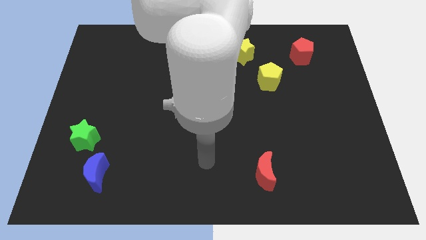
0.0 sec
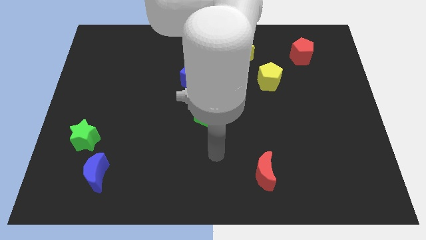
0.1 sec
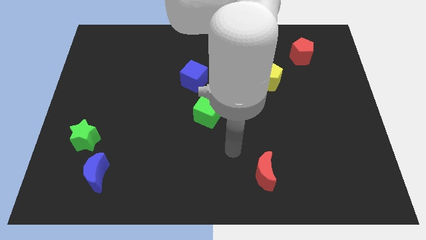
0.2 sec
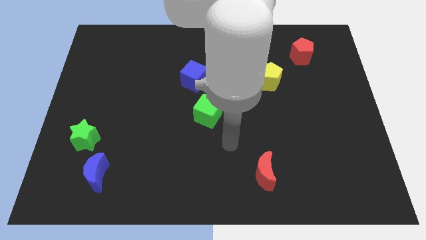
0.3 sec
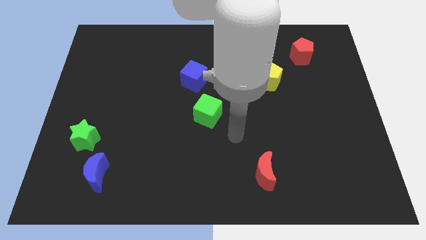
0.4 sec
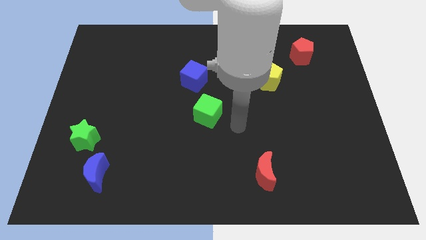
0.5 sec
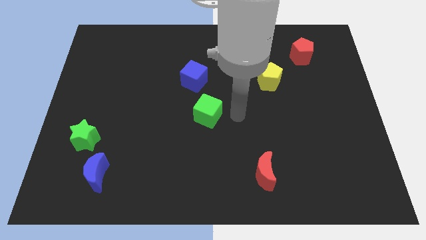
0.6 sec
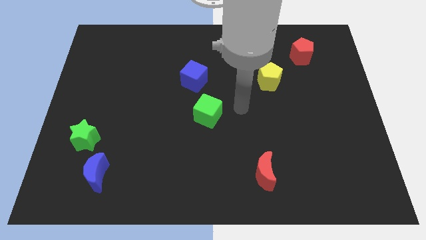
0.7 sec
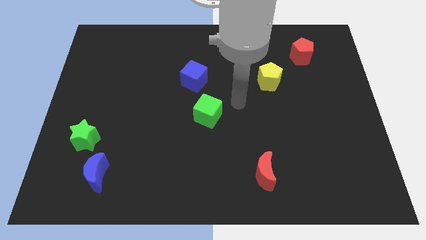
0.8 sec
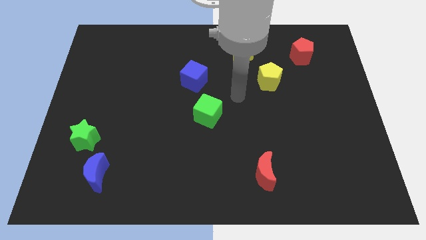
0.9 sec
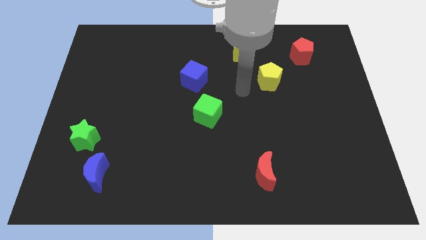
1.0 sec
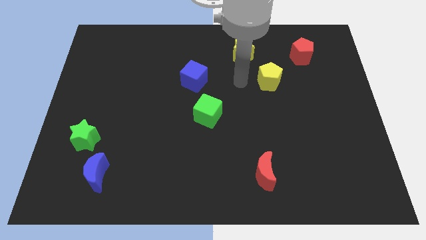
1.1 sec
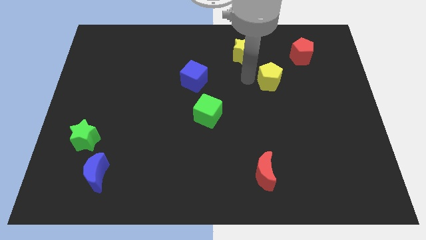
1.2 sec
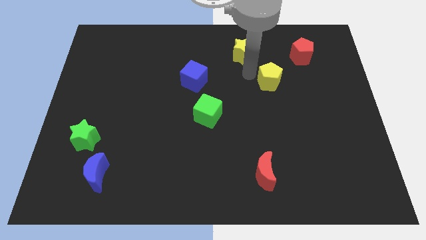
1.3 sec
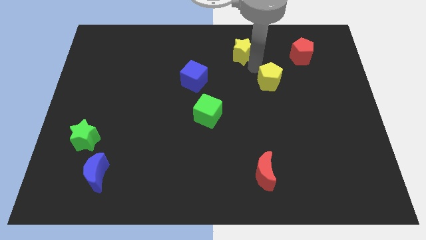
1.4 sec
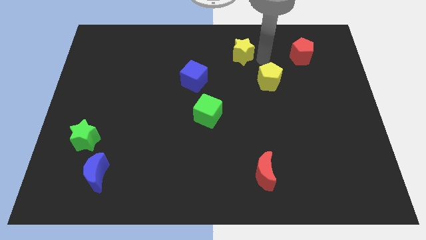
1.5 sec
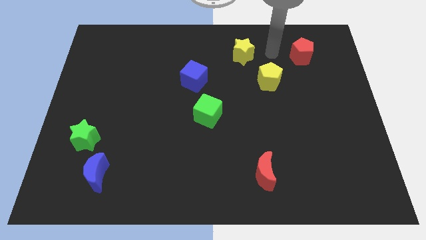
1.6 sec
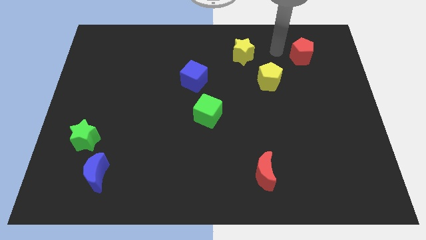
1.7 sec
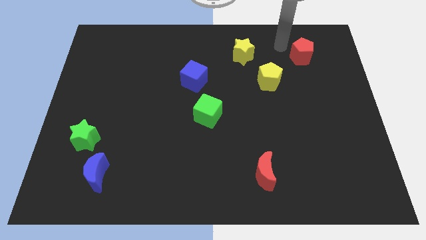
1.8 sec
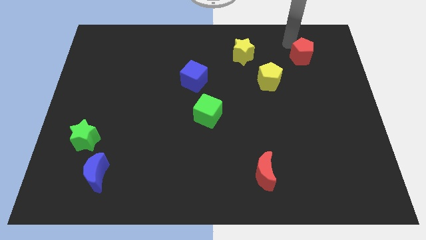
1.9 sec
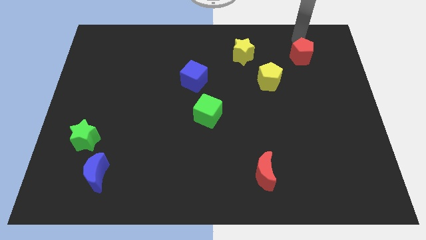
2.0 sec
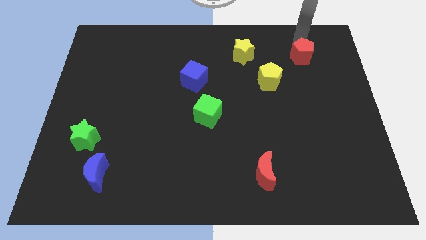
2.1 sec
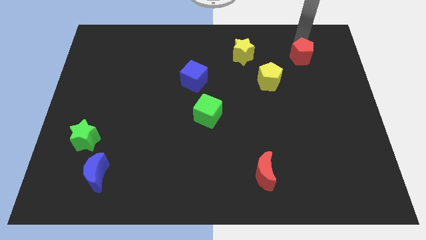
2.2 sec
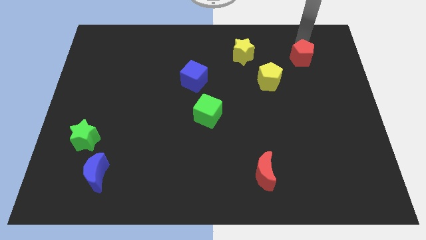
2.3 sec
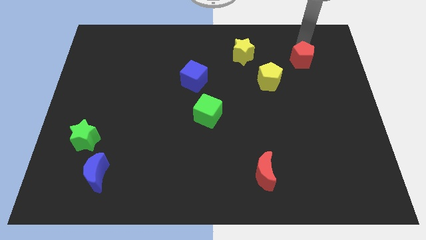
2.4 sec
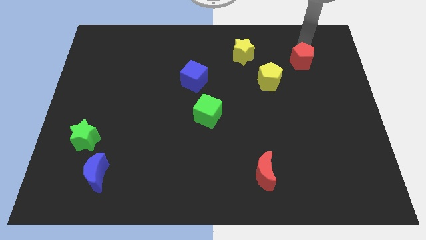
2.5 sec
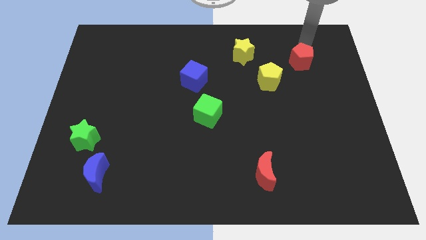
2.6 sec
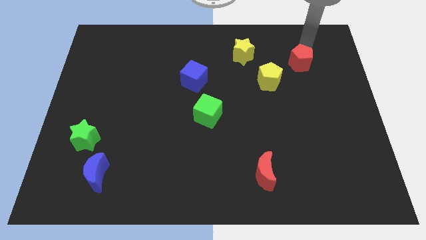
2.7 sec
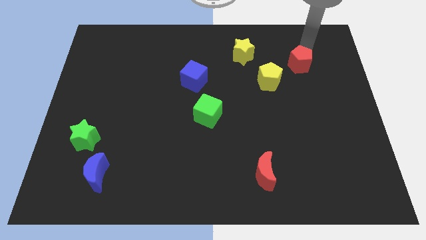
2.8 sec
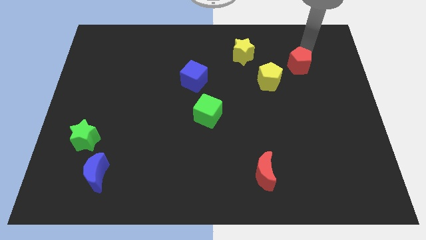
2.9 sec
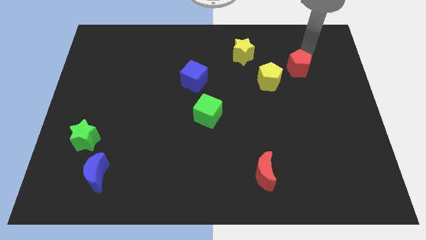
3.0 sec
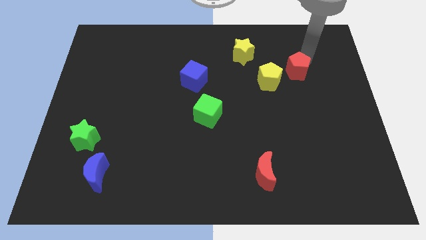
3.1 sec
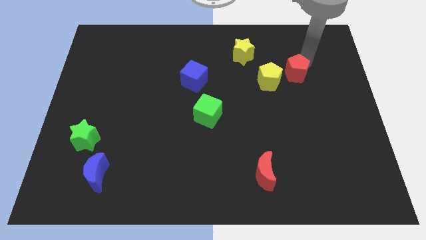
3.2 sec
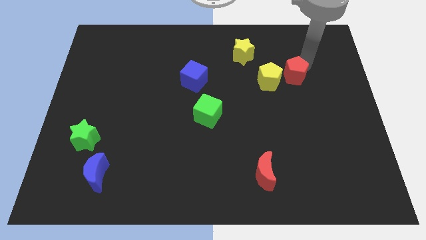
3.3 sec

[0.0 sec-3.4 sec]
move the red pentagon downwards slightly

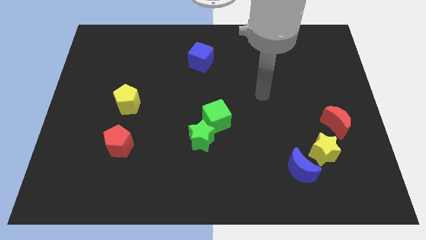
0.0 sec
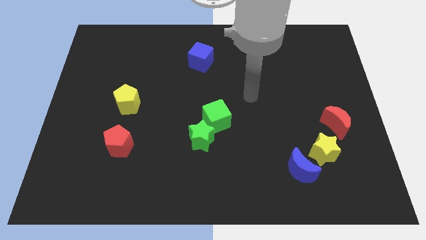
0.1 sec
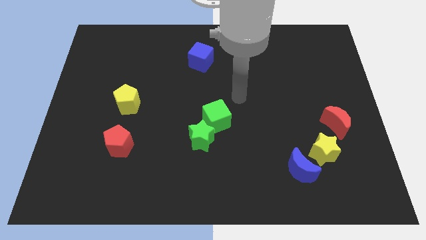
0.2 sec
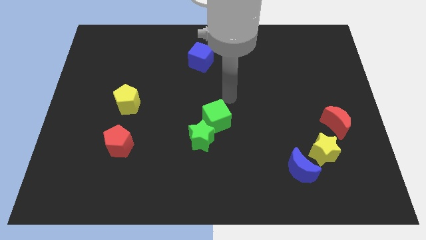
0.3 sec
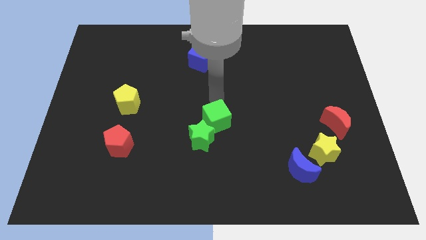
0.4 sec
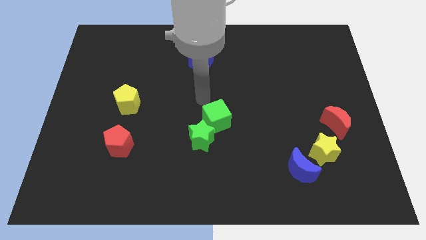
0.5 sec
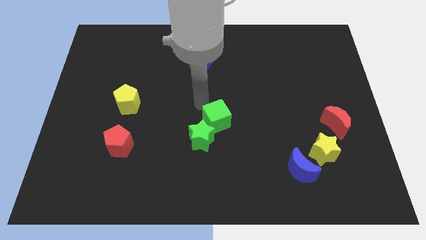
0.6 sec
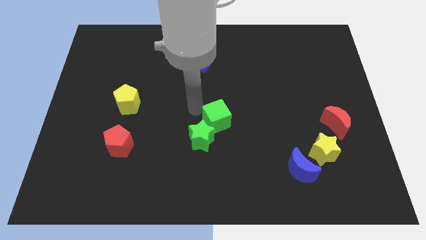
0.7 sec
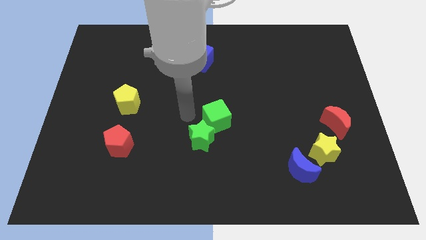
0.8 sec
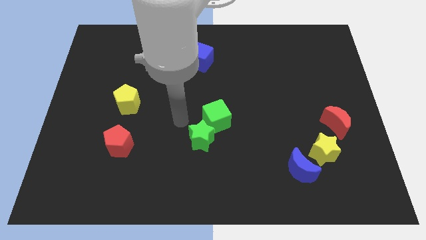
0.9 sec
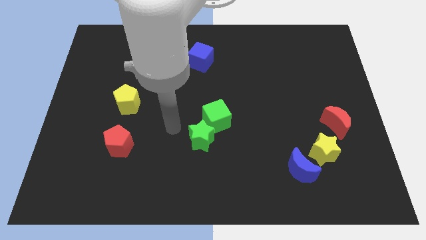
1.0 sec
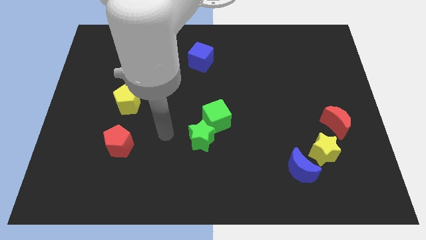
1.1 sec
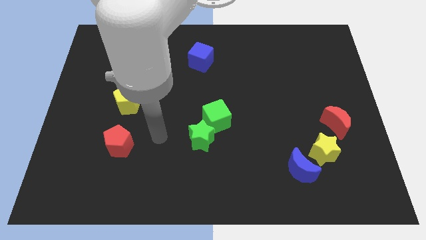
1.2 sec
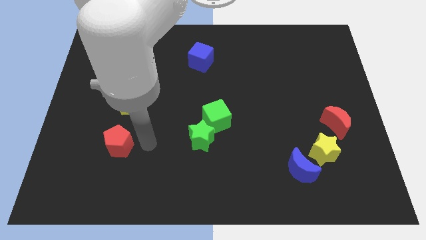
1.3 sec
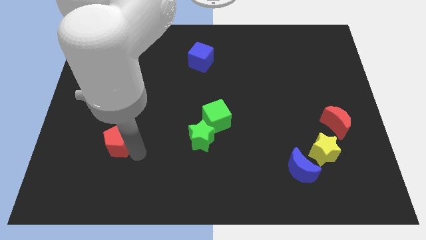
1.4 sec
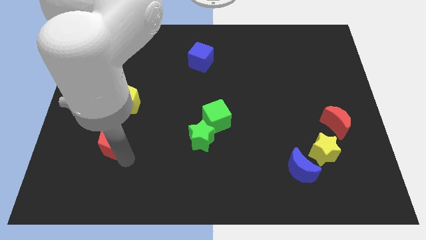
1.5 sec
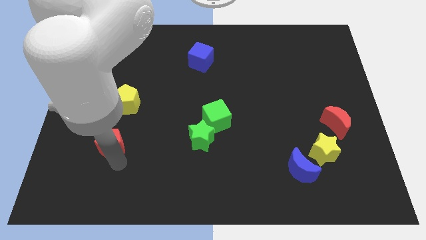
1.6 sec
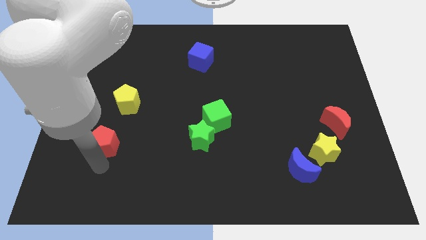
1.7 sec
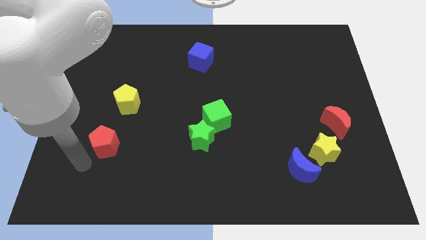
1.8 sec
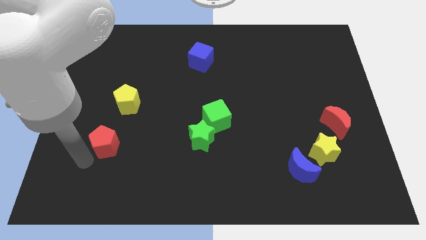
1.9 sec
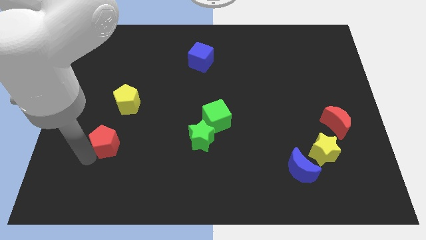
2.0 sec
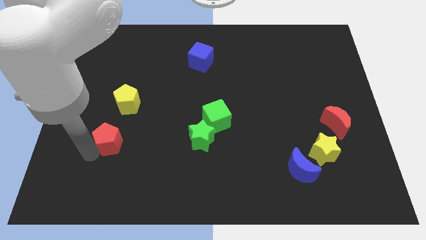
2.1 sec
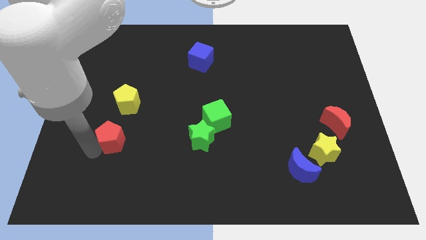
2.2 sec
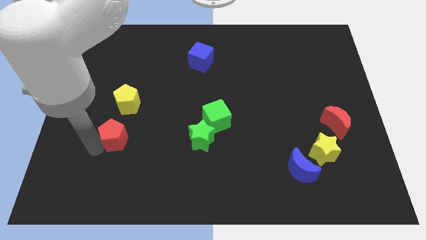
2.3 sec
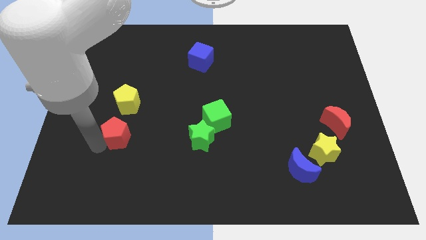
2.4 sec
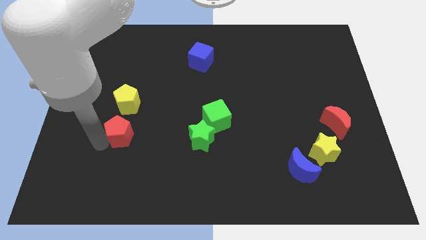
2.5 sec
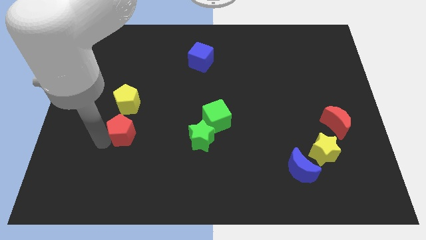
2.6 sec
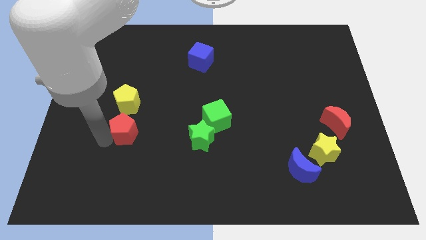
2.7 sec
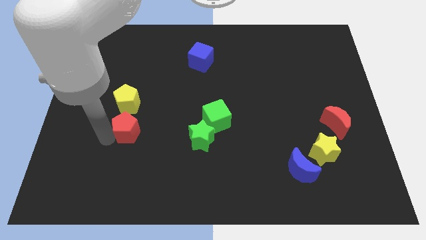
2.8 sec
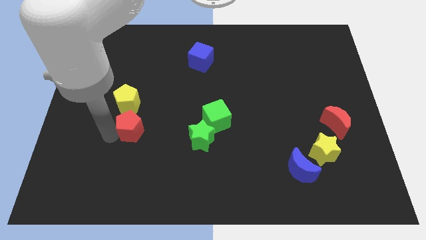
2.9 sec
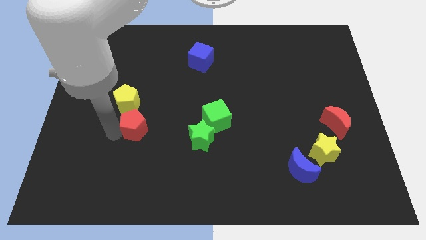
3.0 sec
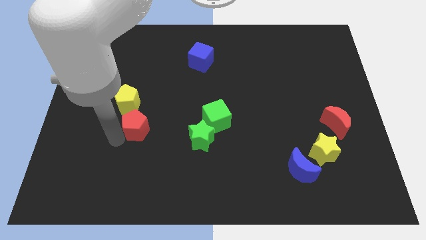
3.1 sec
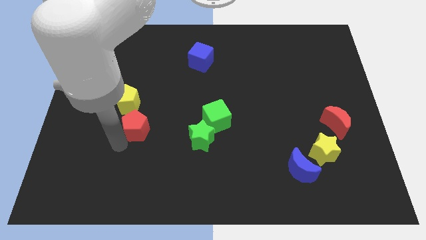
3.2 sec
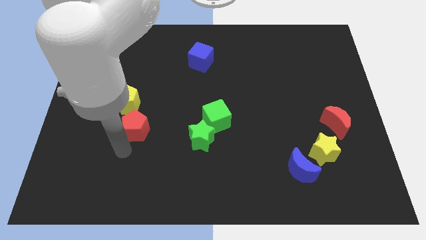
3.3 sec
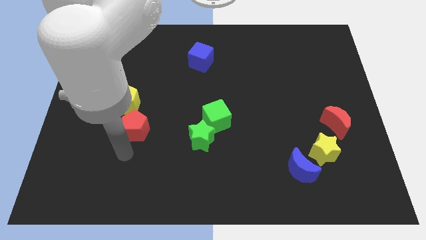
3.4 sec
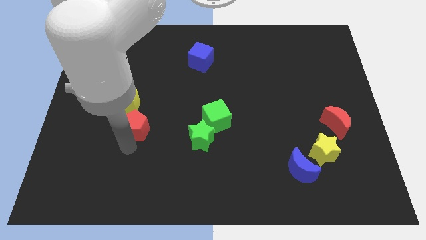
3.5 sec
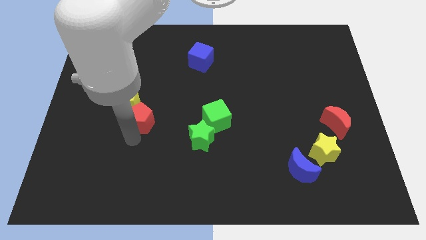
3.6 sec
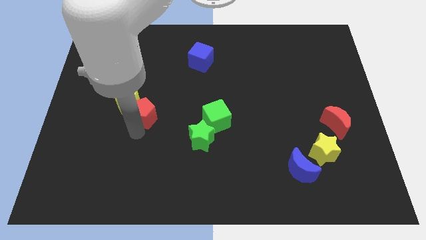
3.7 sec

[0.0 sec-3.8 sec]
push the red pentagon upwards a bit

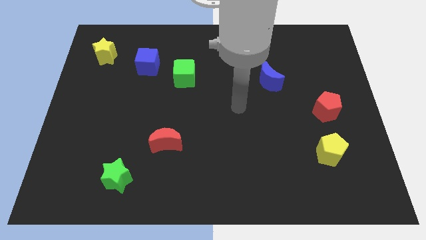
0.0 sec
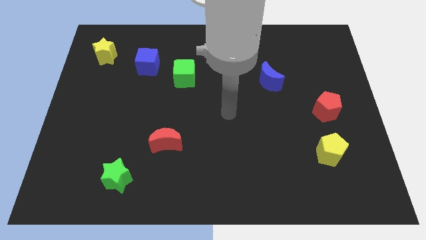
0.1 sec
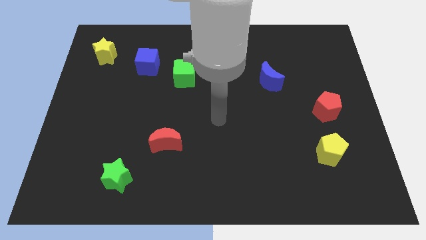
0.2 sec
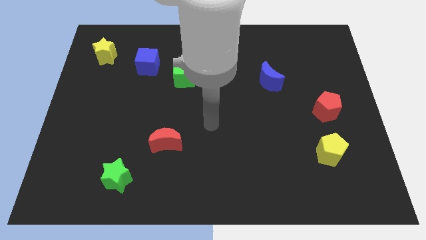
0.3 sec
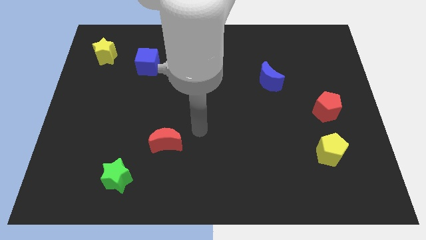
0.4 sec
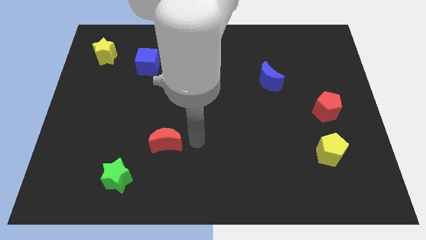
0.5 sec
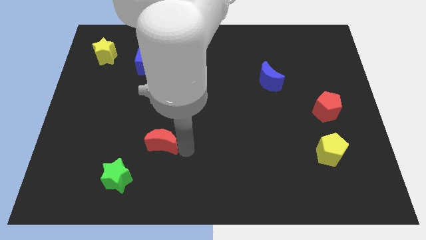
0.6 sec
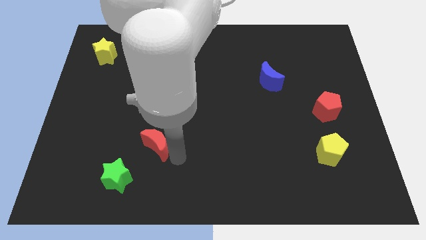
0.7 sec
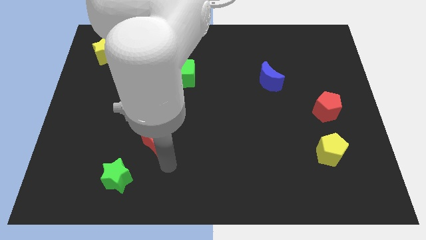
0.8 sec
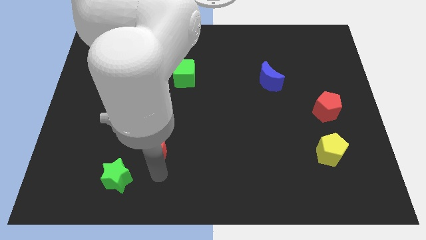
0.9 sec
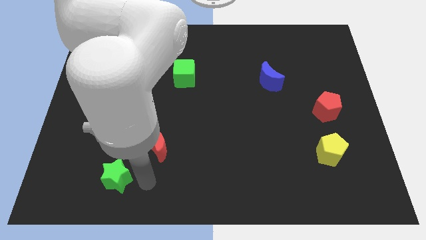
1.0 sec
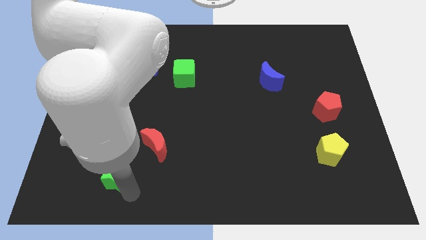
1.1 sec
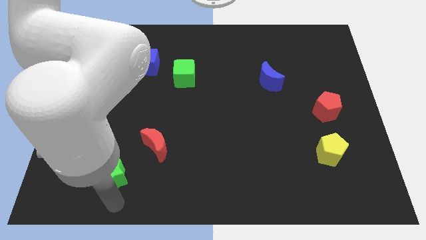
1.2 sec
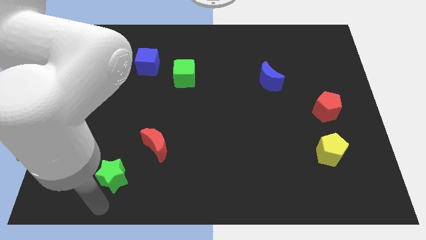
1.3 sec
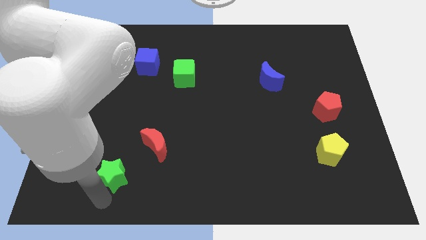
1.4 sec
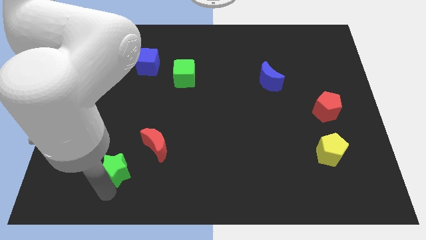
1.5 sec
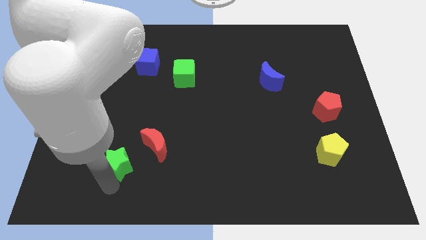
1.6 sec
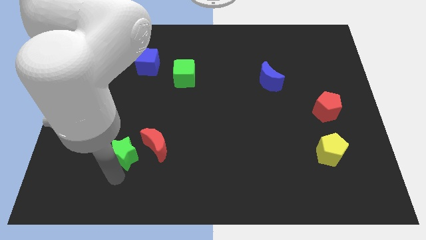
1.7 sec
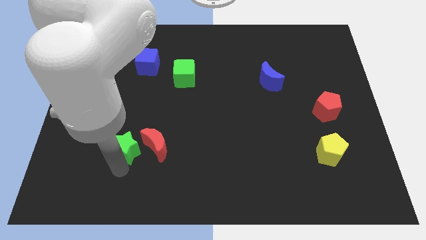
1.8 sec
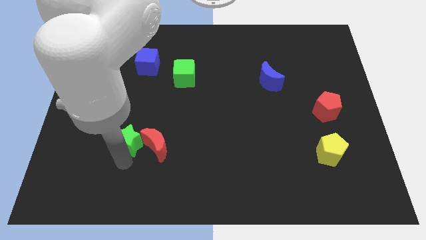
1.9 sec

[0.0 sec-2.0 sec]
slightly push the green star up
